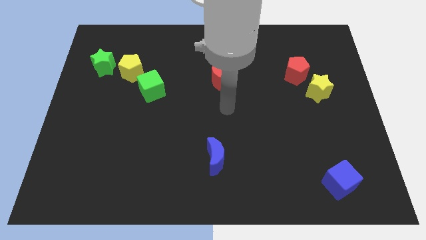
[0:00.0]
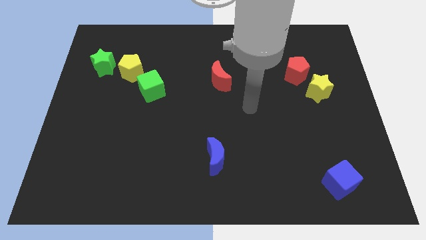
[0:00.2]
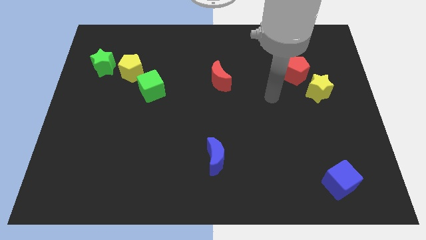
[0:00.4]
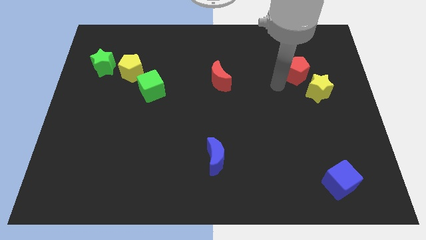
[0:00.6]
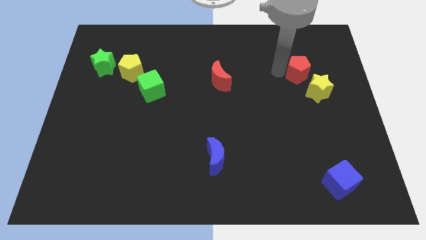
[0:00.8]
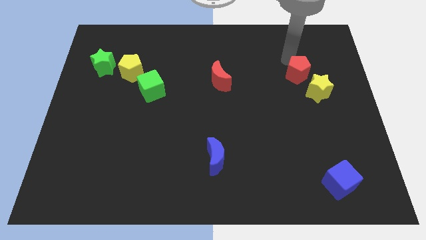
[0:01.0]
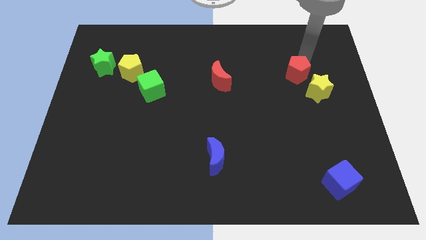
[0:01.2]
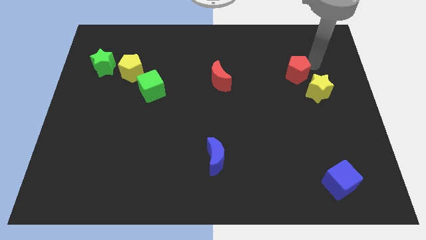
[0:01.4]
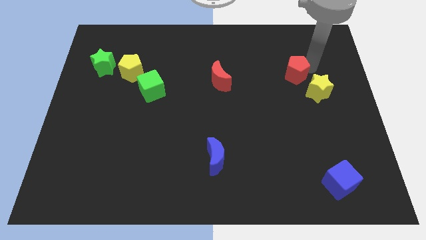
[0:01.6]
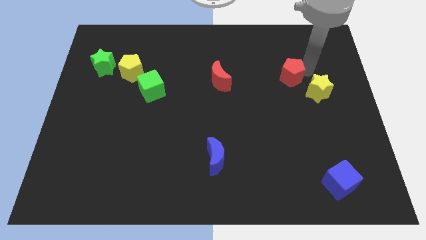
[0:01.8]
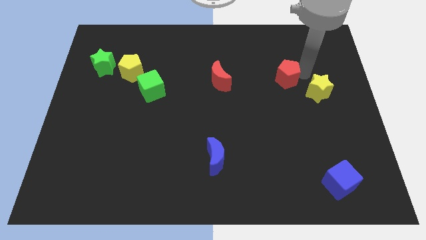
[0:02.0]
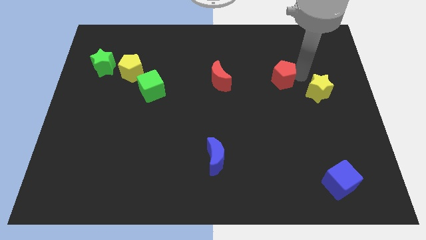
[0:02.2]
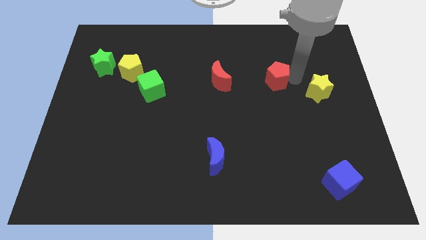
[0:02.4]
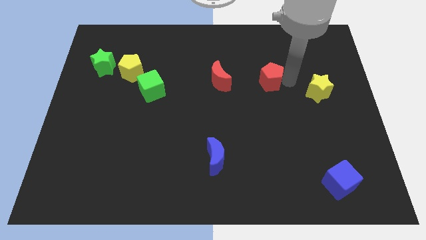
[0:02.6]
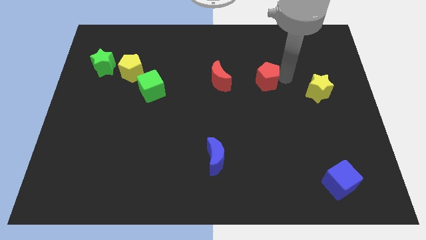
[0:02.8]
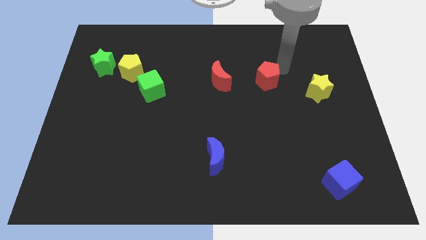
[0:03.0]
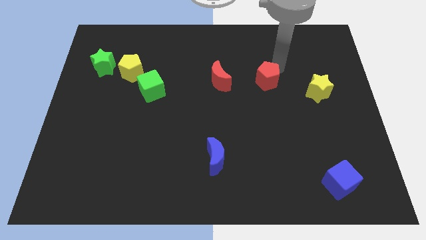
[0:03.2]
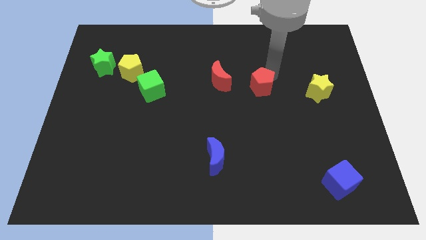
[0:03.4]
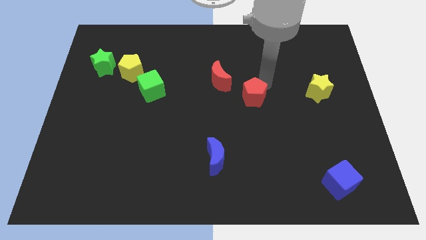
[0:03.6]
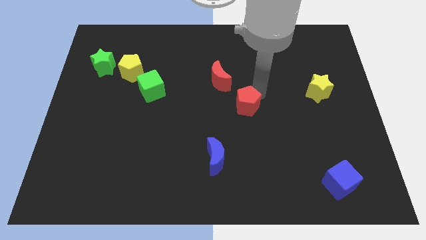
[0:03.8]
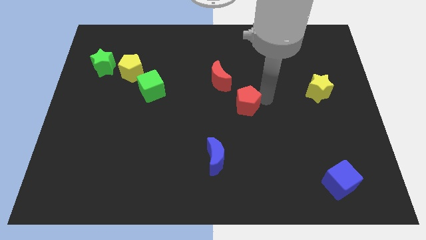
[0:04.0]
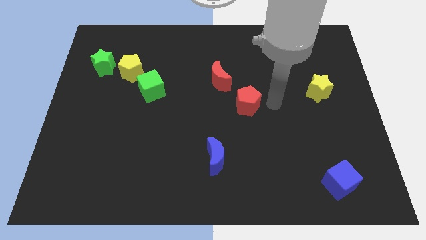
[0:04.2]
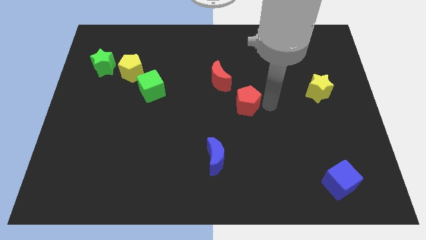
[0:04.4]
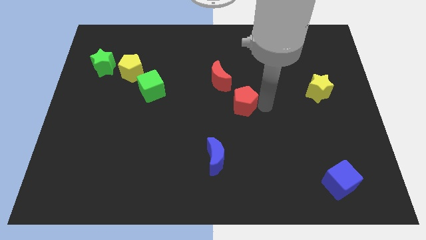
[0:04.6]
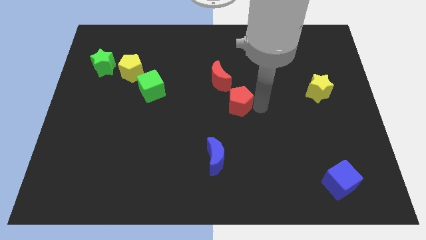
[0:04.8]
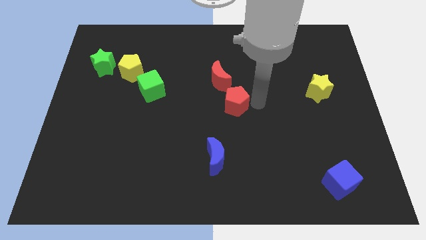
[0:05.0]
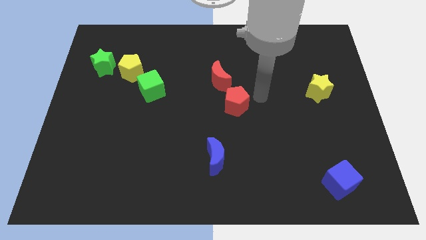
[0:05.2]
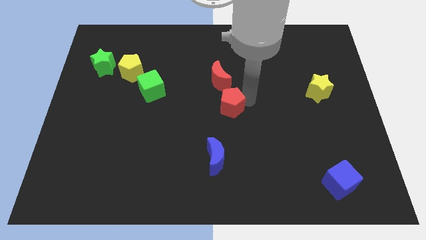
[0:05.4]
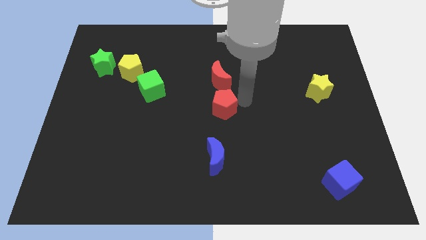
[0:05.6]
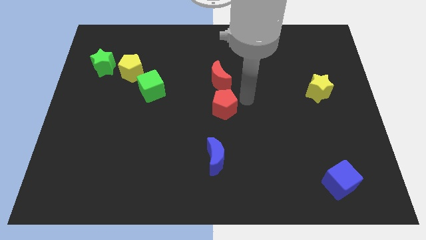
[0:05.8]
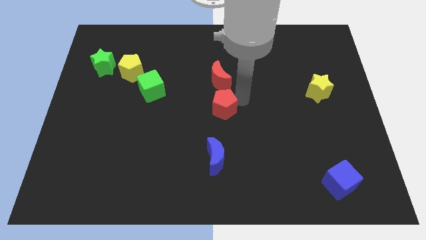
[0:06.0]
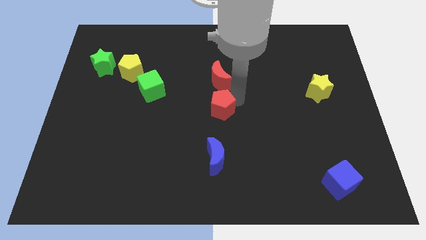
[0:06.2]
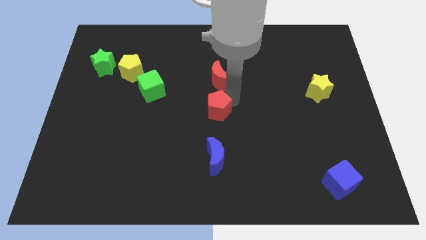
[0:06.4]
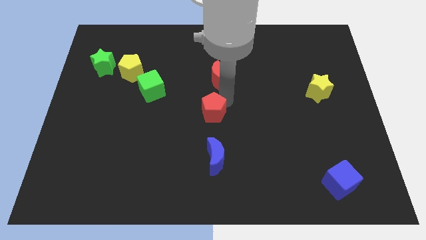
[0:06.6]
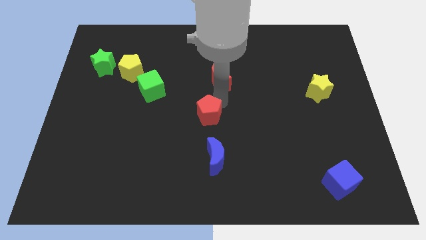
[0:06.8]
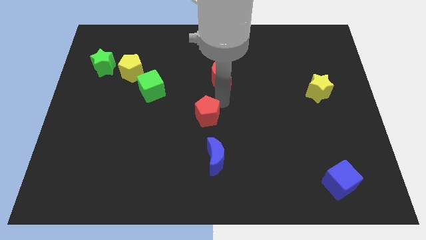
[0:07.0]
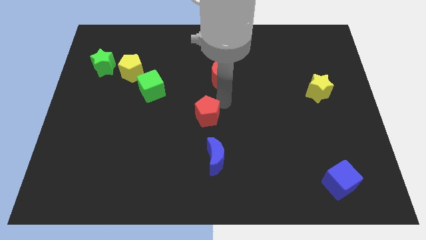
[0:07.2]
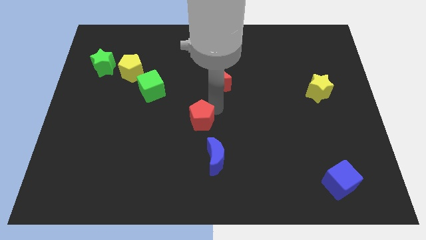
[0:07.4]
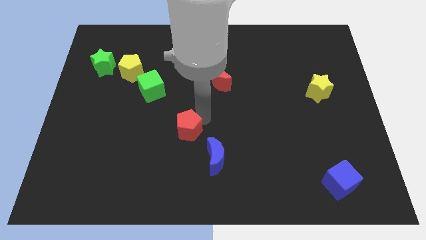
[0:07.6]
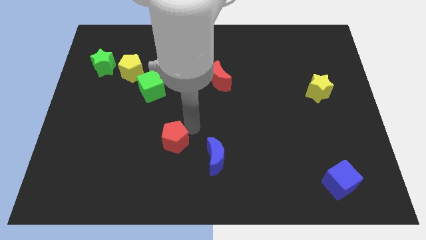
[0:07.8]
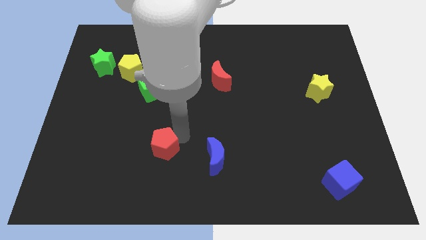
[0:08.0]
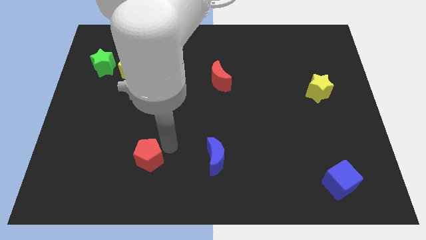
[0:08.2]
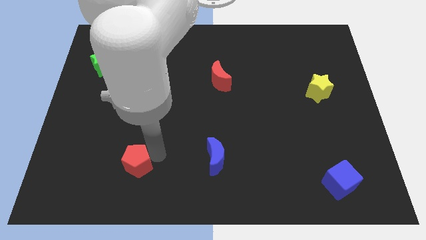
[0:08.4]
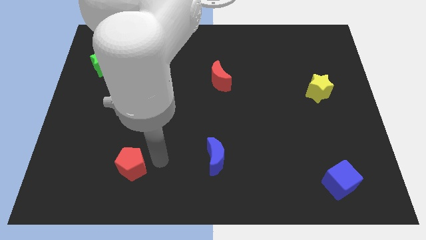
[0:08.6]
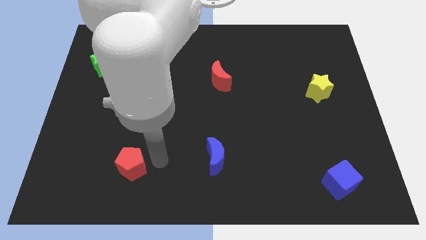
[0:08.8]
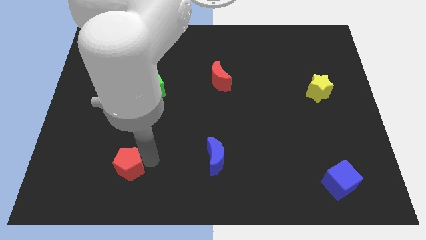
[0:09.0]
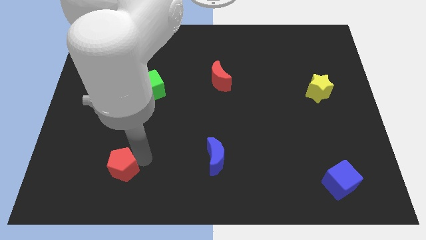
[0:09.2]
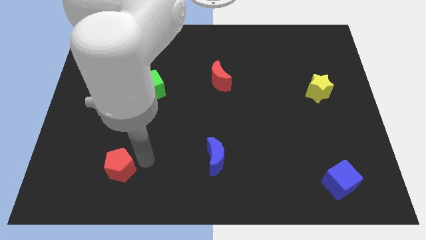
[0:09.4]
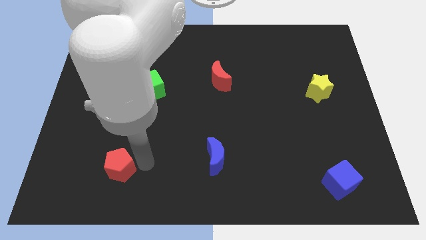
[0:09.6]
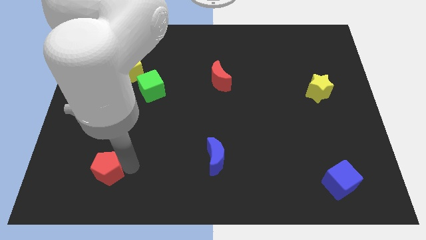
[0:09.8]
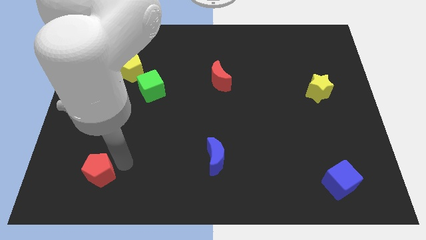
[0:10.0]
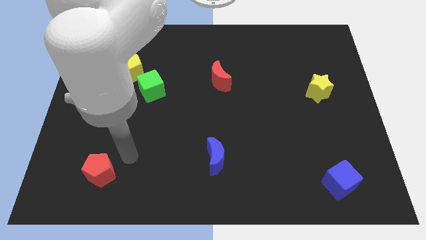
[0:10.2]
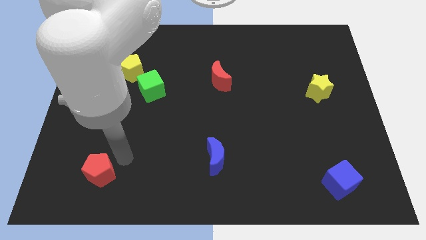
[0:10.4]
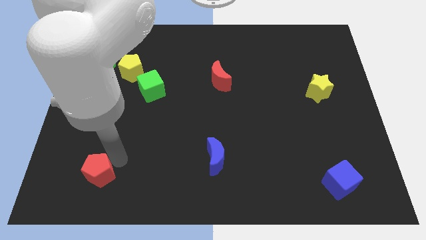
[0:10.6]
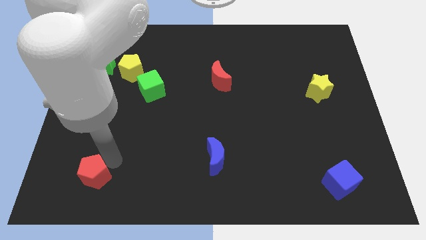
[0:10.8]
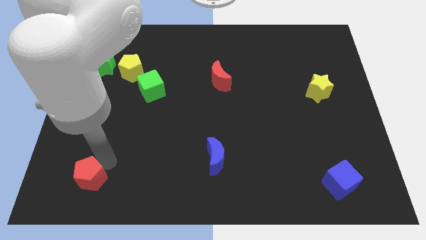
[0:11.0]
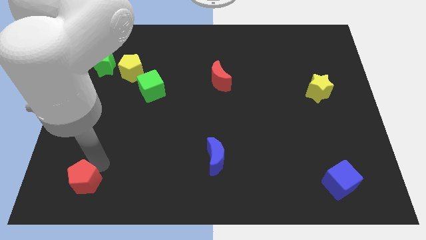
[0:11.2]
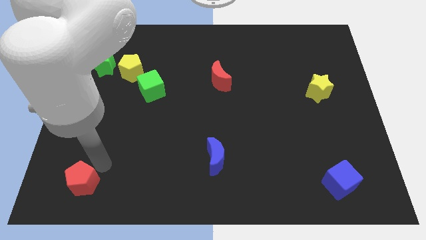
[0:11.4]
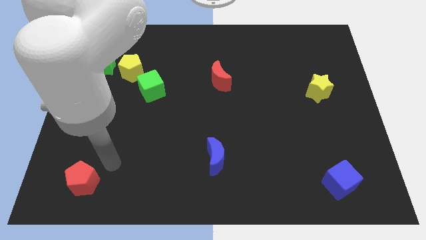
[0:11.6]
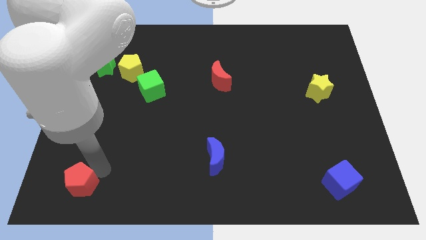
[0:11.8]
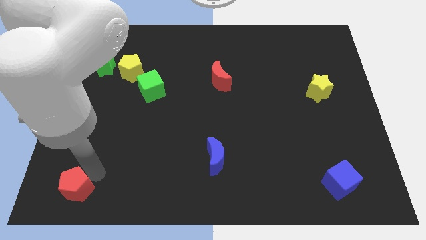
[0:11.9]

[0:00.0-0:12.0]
move the red pentagon to the bottom left of the board

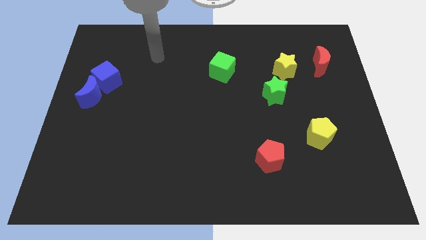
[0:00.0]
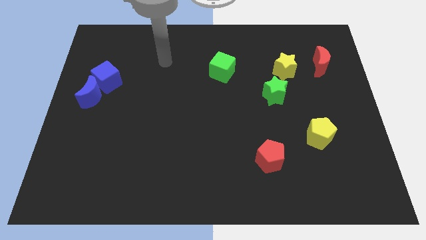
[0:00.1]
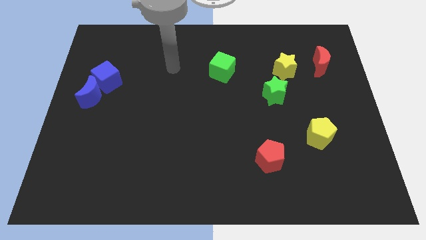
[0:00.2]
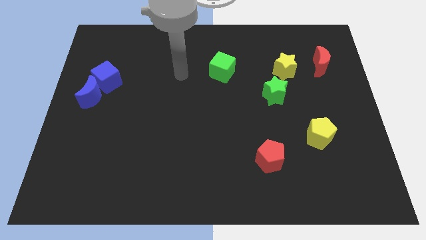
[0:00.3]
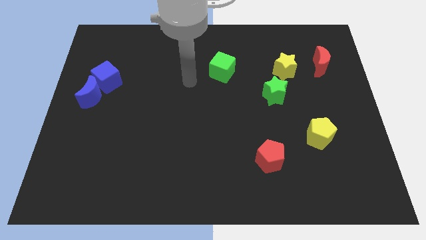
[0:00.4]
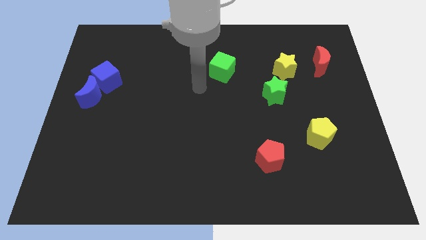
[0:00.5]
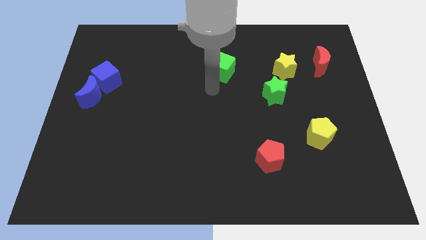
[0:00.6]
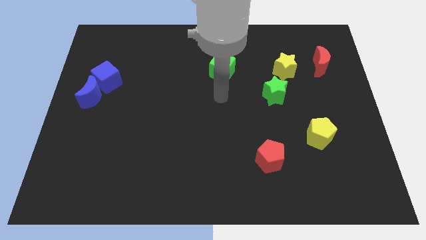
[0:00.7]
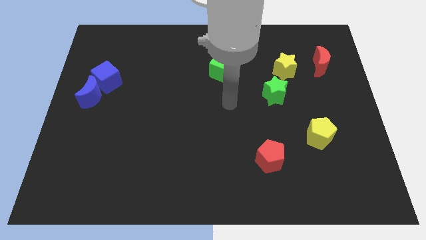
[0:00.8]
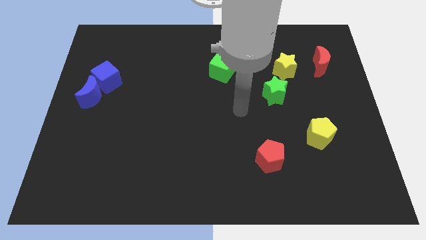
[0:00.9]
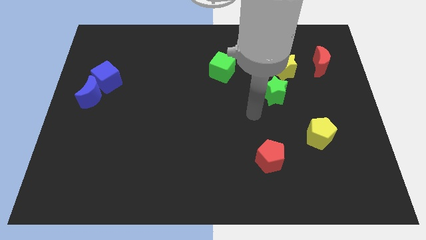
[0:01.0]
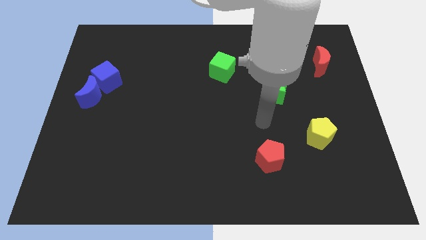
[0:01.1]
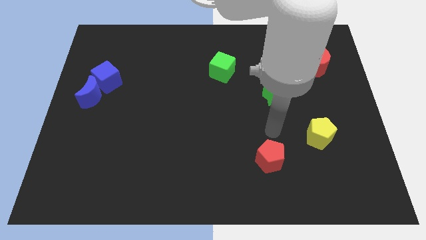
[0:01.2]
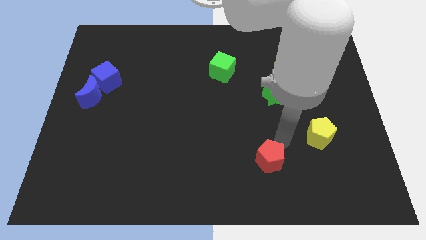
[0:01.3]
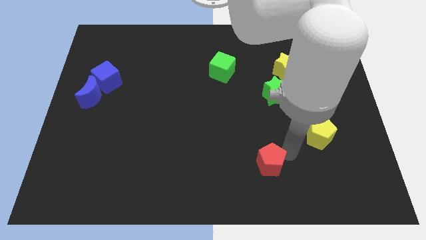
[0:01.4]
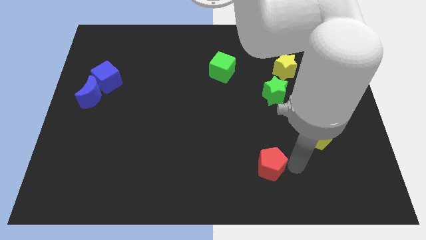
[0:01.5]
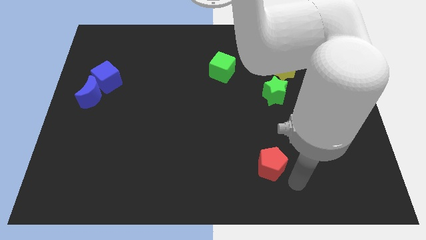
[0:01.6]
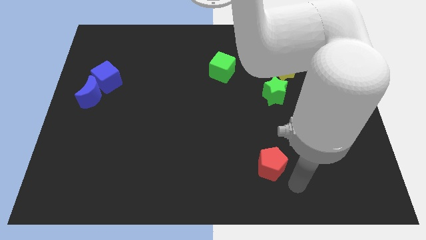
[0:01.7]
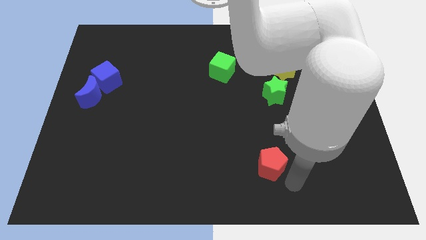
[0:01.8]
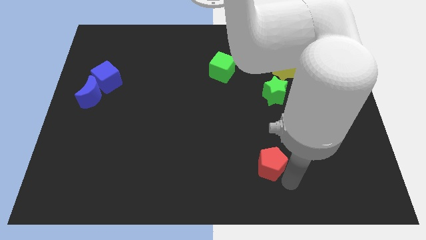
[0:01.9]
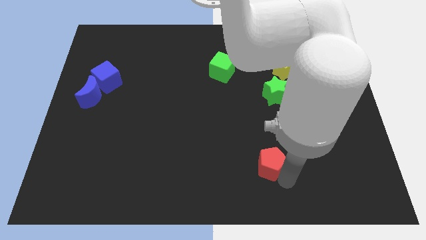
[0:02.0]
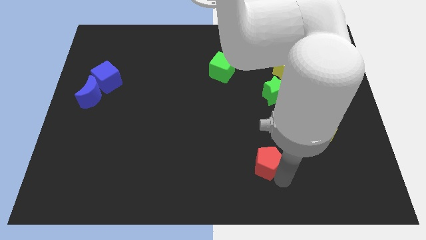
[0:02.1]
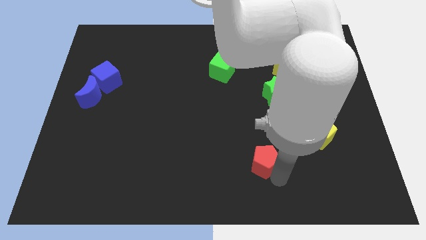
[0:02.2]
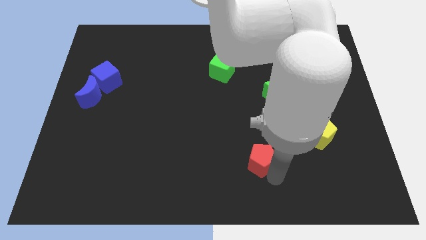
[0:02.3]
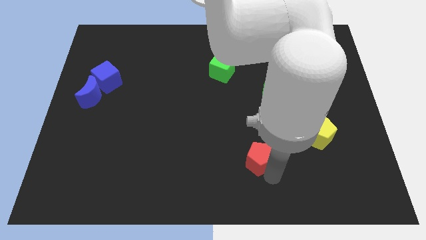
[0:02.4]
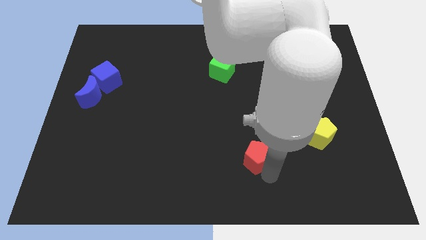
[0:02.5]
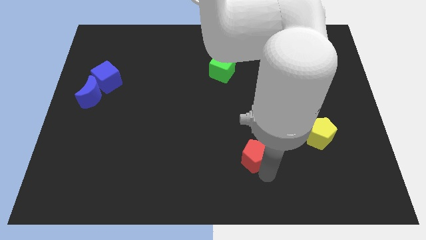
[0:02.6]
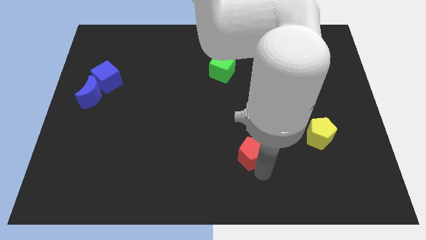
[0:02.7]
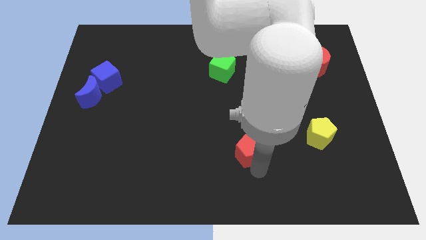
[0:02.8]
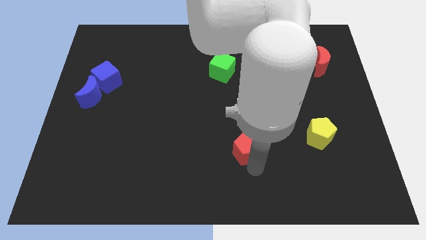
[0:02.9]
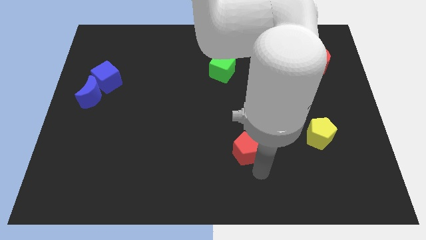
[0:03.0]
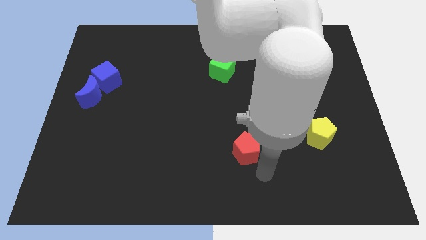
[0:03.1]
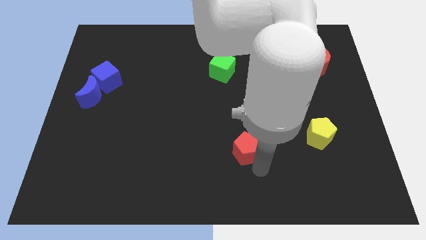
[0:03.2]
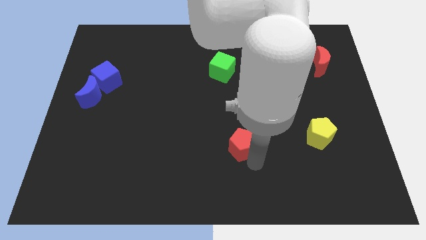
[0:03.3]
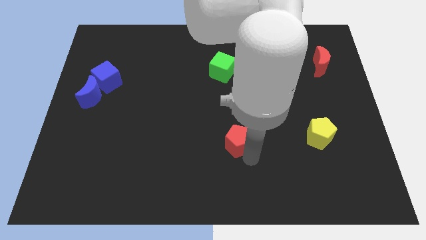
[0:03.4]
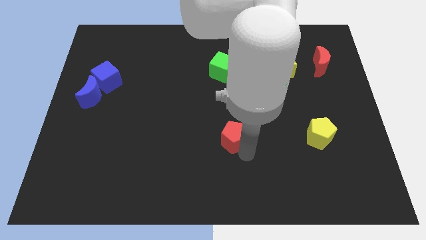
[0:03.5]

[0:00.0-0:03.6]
put the red pentagon to the middle of the board
